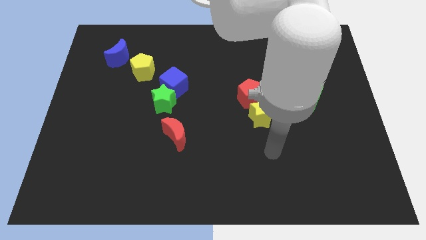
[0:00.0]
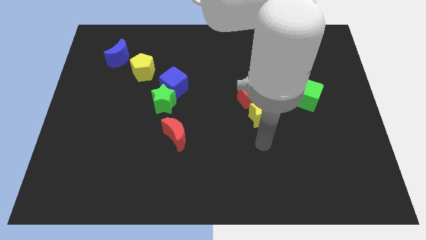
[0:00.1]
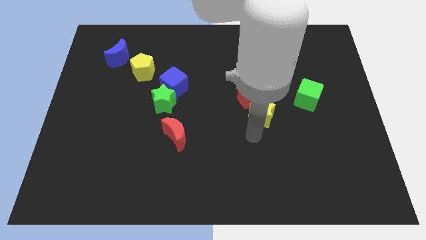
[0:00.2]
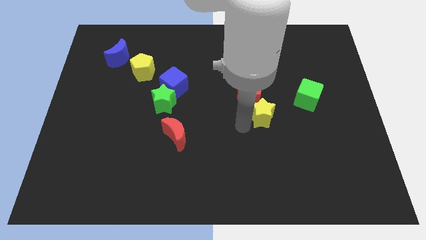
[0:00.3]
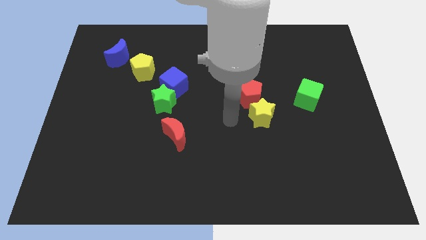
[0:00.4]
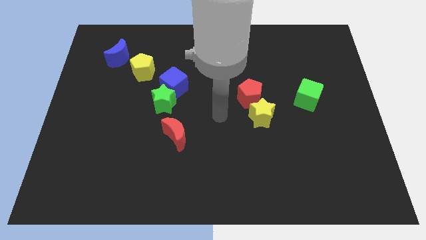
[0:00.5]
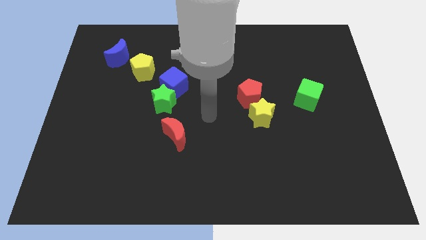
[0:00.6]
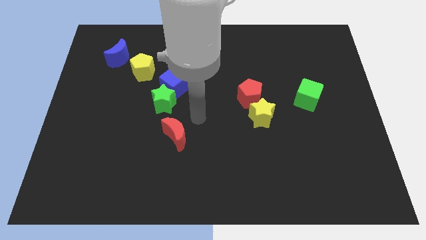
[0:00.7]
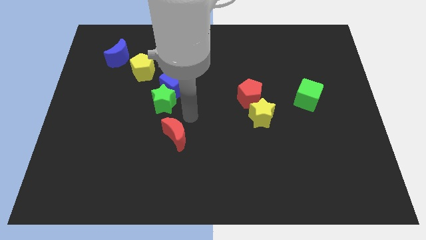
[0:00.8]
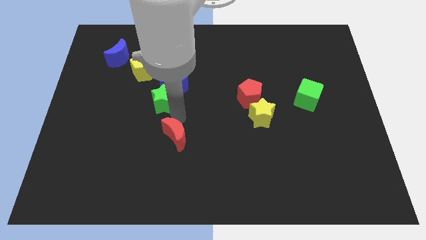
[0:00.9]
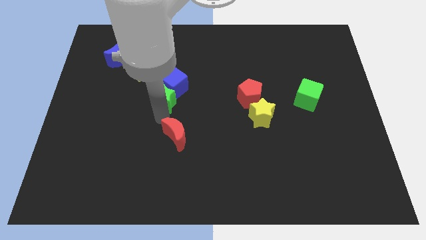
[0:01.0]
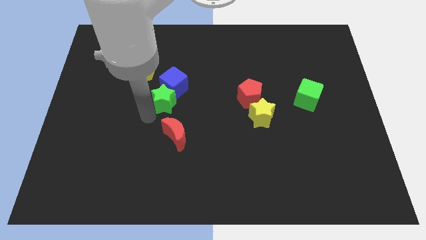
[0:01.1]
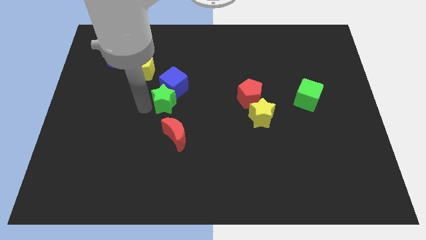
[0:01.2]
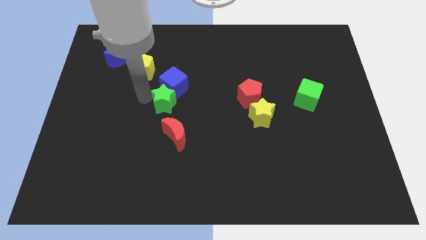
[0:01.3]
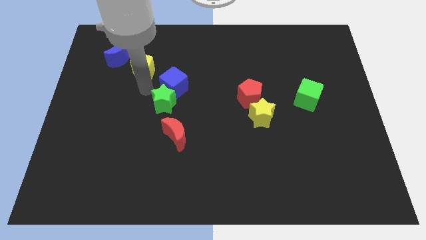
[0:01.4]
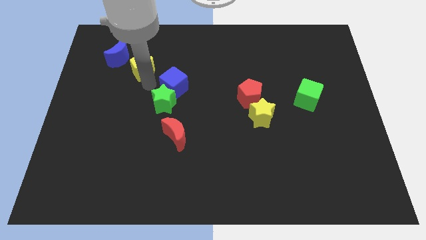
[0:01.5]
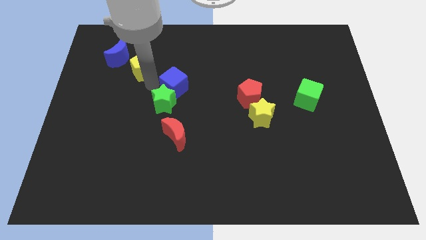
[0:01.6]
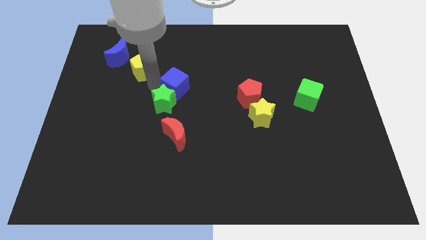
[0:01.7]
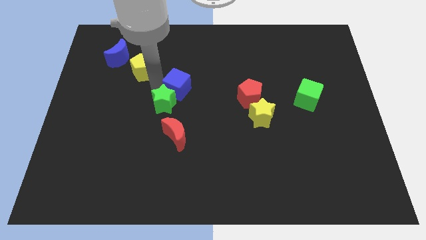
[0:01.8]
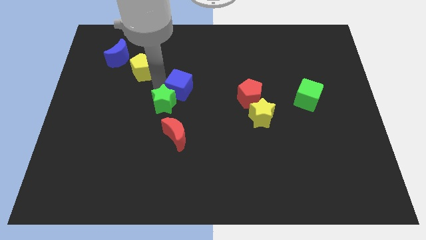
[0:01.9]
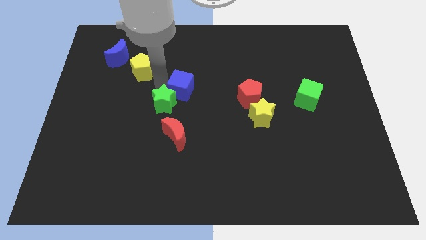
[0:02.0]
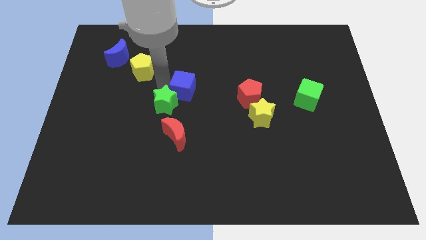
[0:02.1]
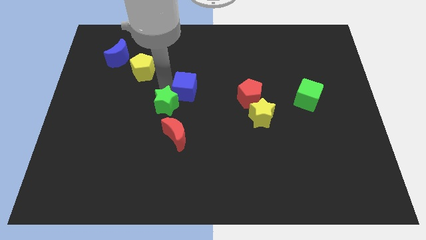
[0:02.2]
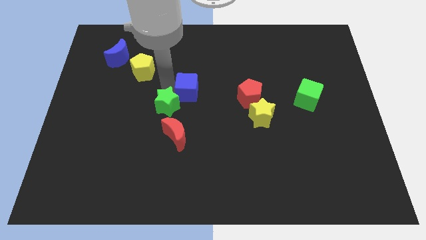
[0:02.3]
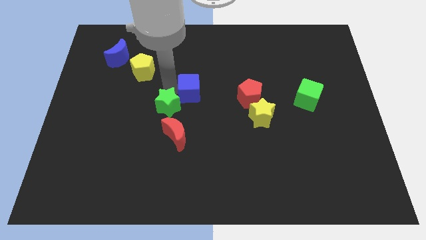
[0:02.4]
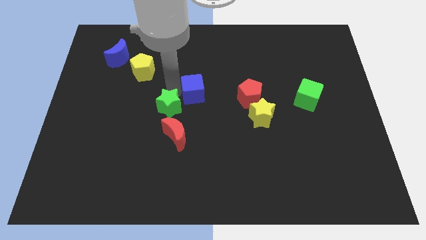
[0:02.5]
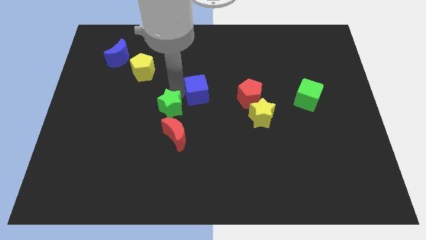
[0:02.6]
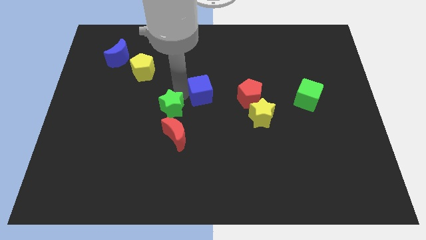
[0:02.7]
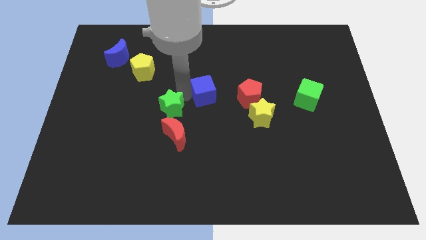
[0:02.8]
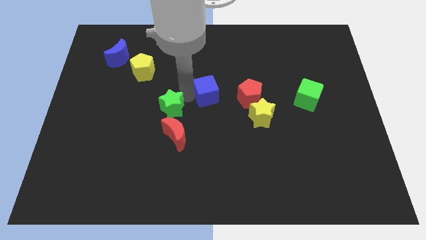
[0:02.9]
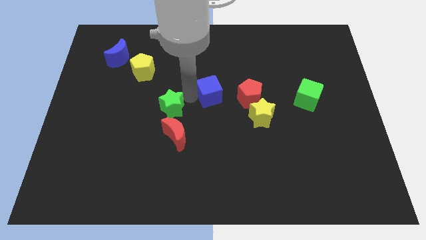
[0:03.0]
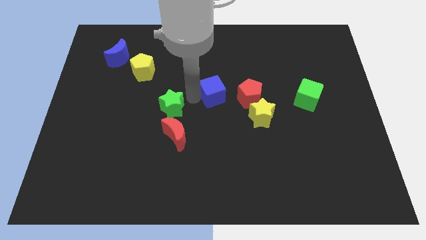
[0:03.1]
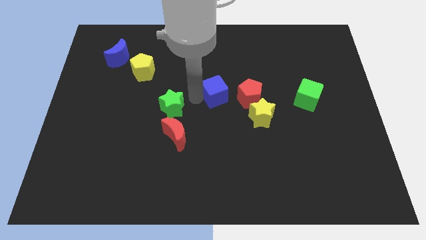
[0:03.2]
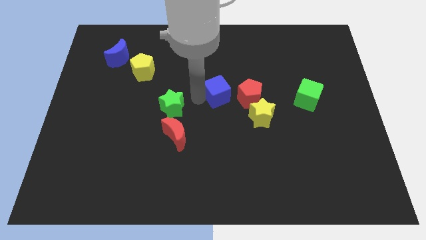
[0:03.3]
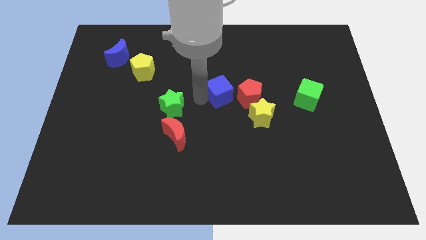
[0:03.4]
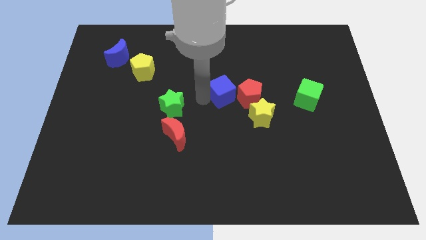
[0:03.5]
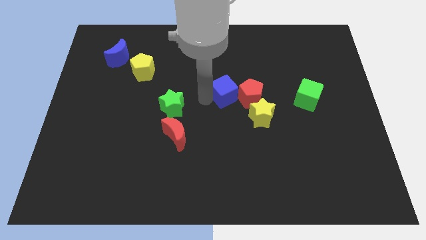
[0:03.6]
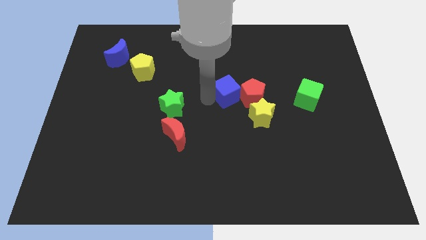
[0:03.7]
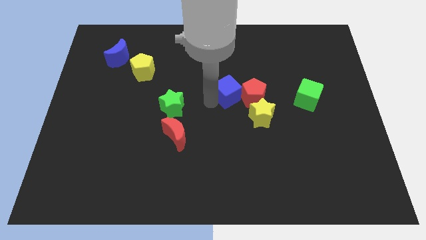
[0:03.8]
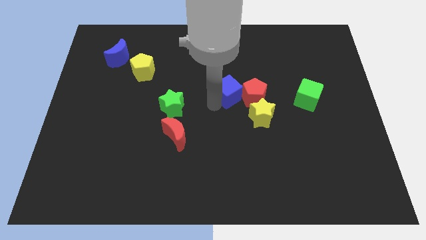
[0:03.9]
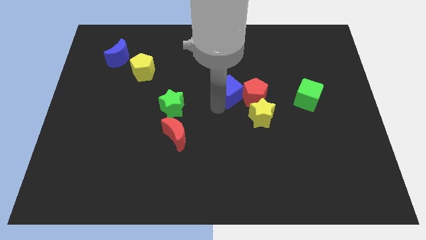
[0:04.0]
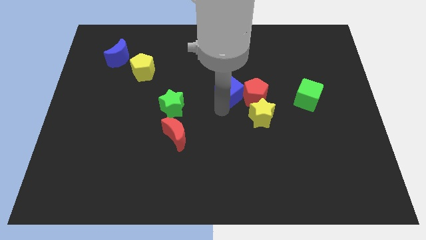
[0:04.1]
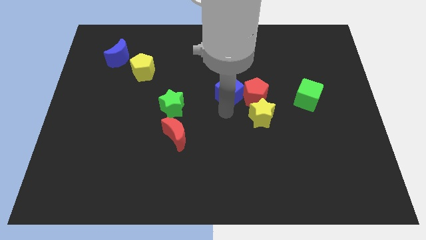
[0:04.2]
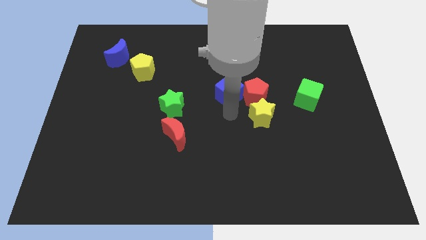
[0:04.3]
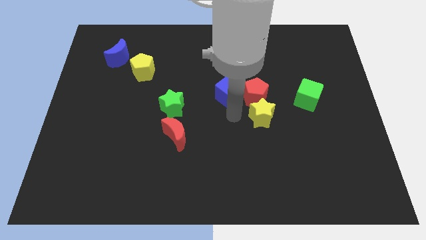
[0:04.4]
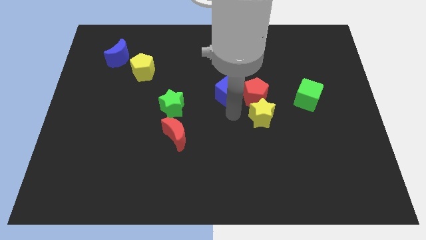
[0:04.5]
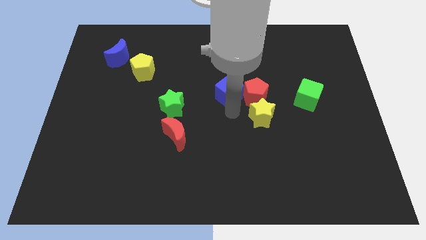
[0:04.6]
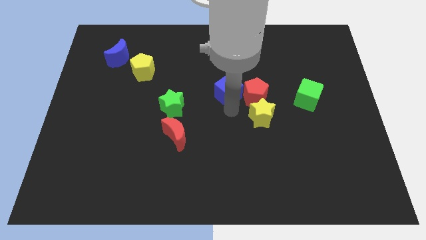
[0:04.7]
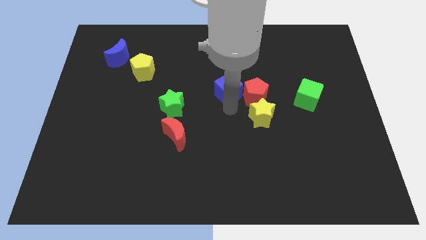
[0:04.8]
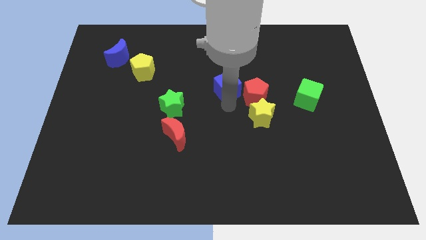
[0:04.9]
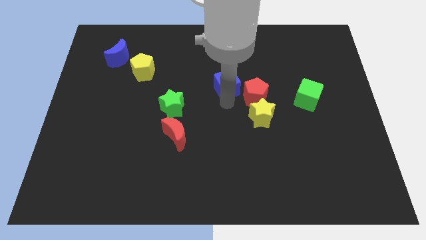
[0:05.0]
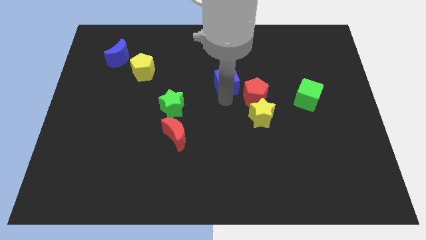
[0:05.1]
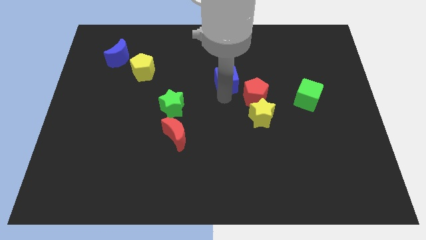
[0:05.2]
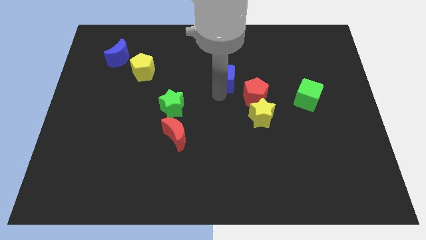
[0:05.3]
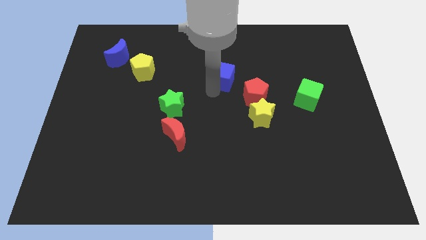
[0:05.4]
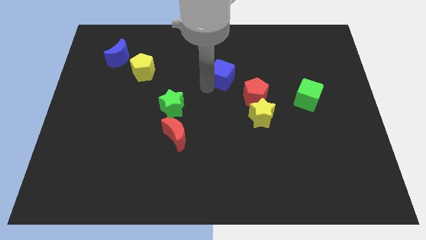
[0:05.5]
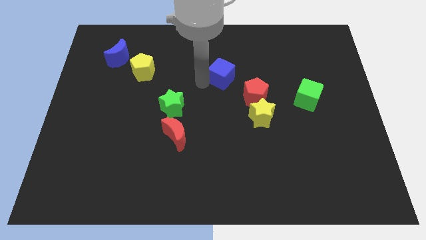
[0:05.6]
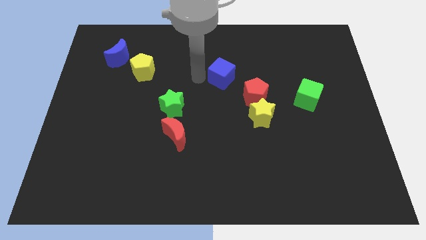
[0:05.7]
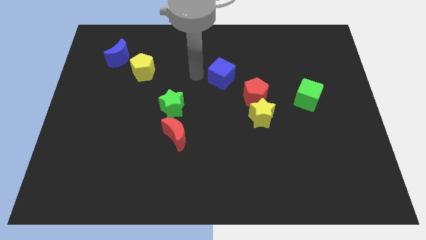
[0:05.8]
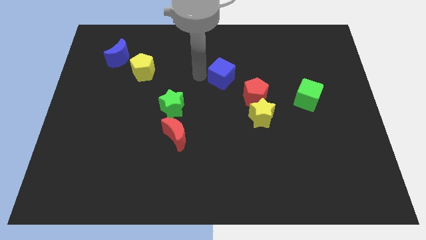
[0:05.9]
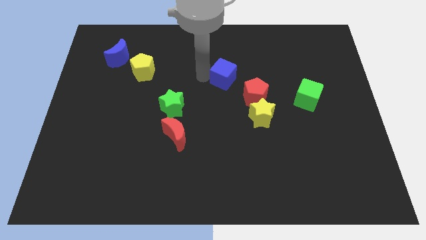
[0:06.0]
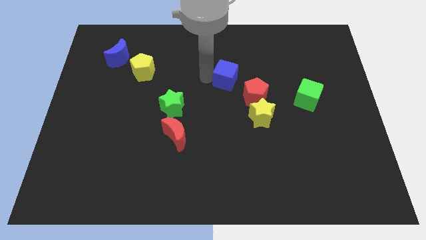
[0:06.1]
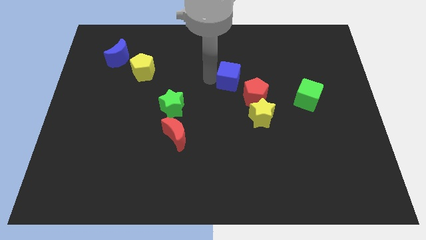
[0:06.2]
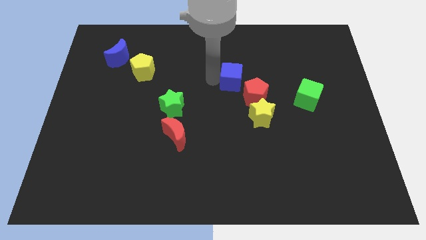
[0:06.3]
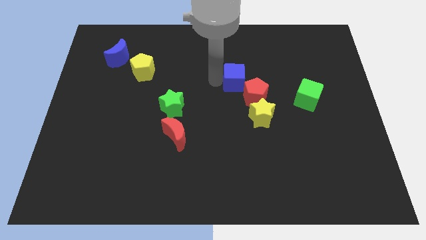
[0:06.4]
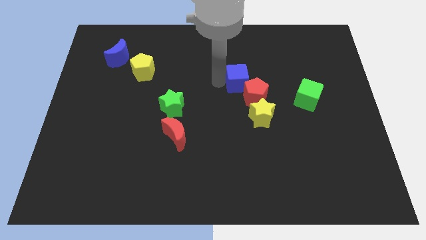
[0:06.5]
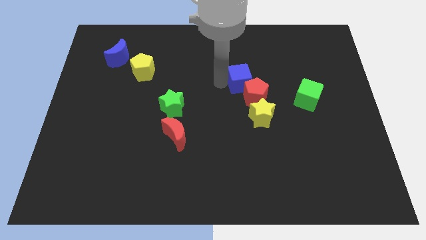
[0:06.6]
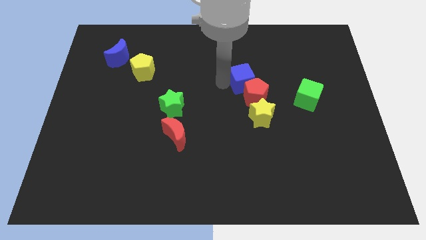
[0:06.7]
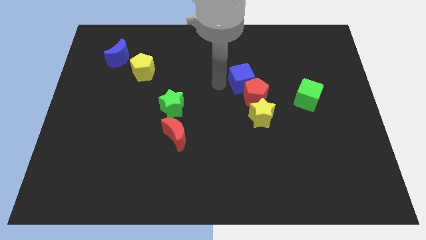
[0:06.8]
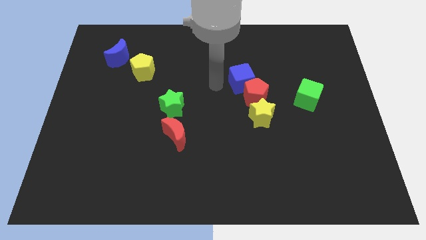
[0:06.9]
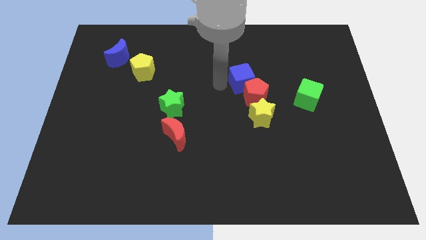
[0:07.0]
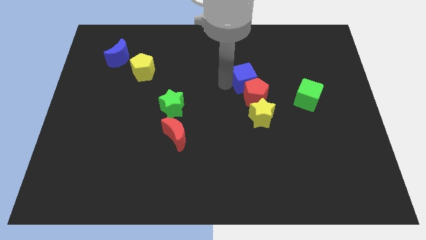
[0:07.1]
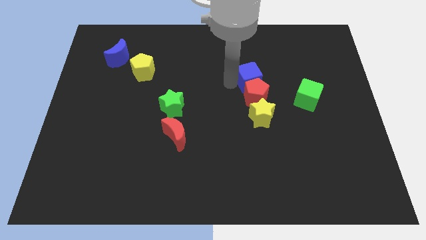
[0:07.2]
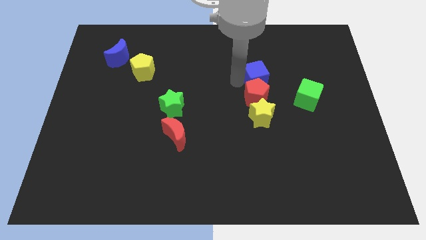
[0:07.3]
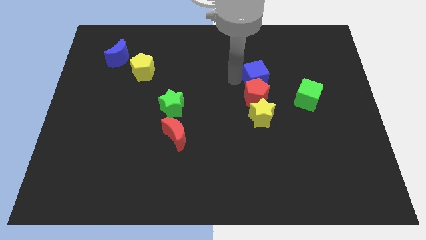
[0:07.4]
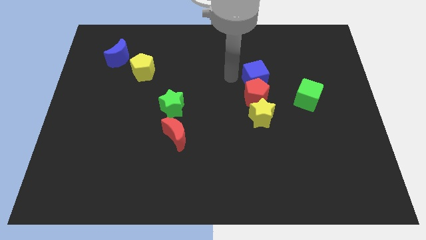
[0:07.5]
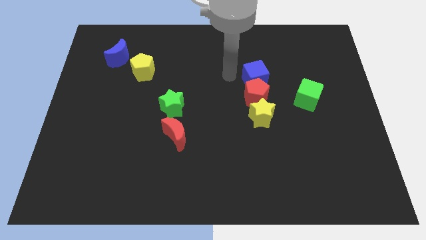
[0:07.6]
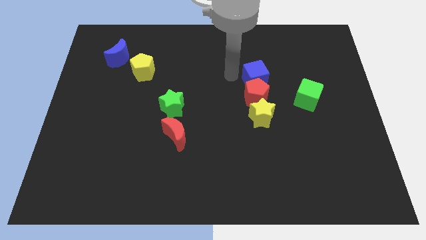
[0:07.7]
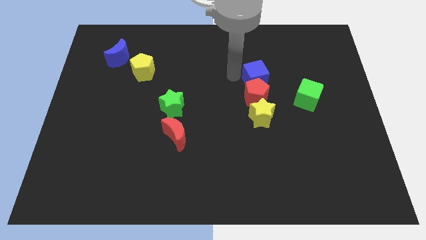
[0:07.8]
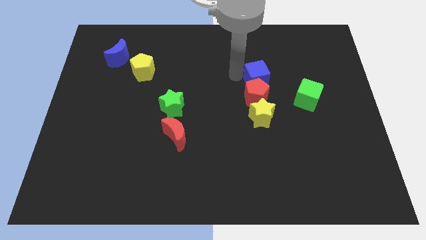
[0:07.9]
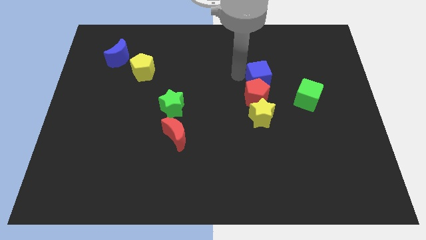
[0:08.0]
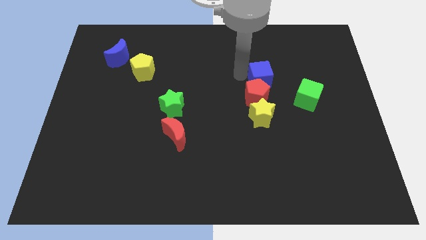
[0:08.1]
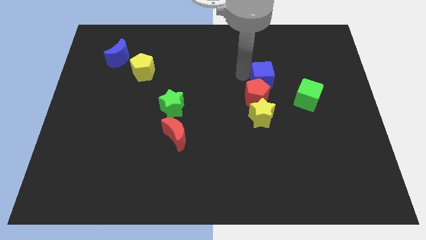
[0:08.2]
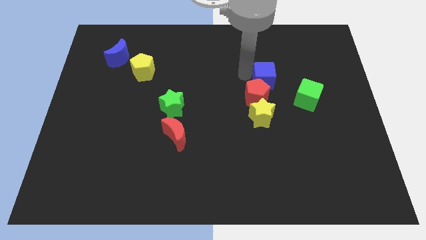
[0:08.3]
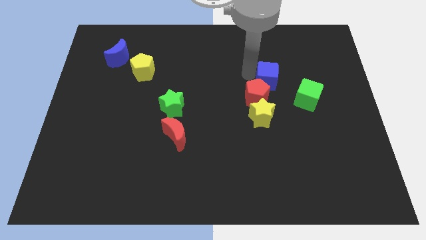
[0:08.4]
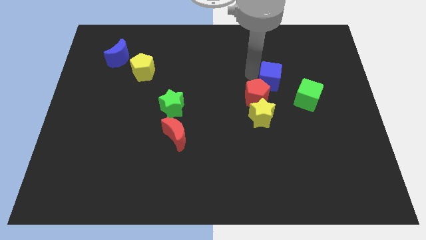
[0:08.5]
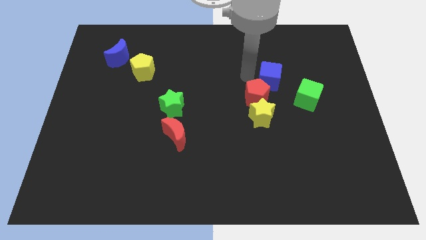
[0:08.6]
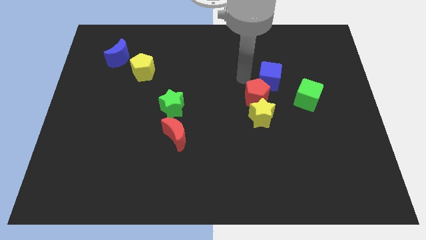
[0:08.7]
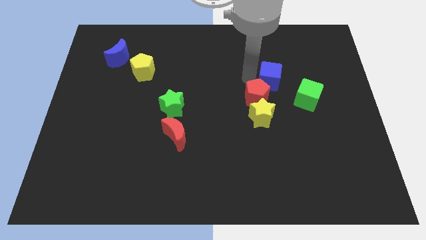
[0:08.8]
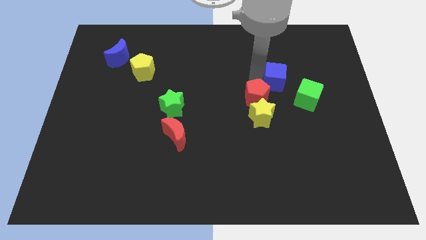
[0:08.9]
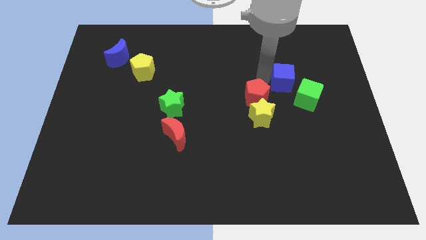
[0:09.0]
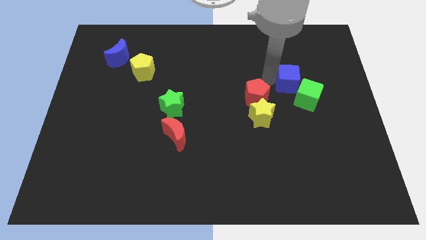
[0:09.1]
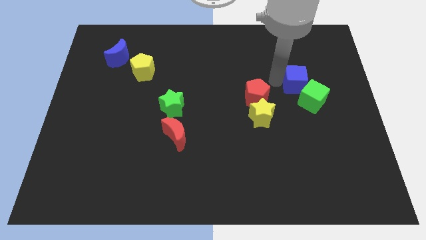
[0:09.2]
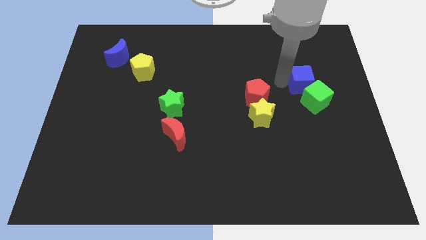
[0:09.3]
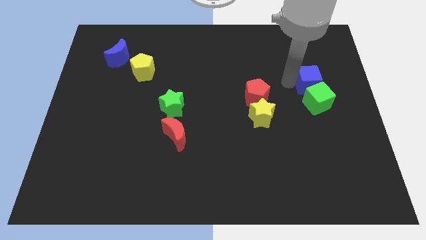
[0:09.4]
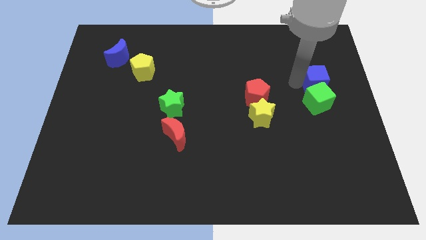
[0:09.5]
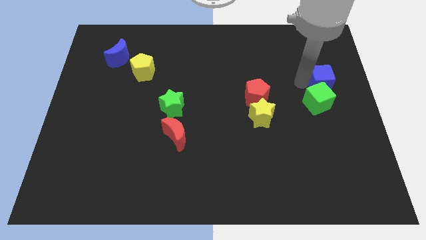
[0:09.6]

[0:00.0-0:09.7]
slide the blue cube to the right side
